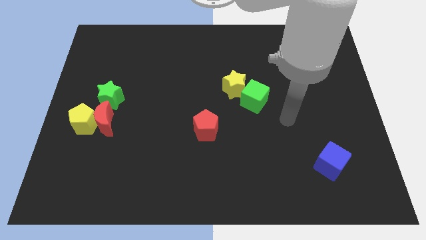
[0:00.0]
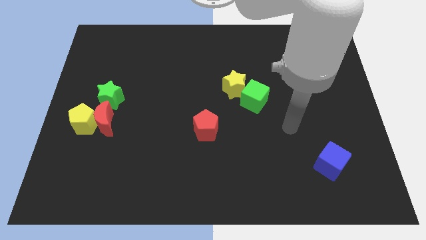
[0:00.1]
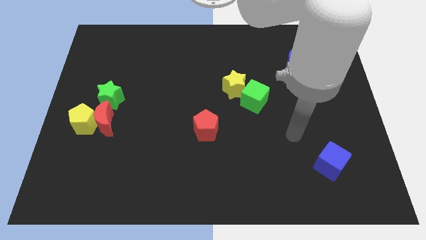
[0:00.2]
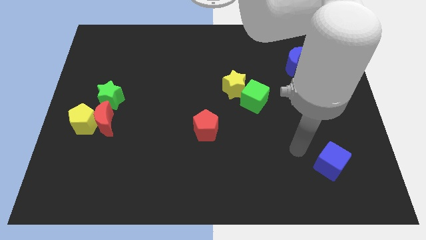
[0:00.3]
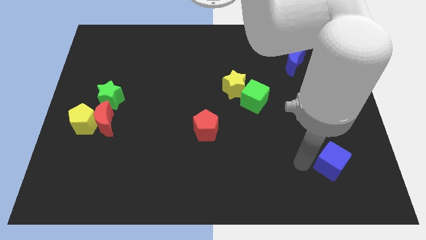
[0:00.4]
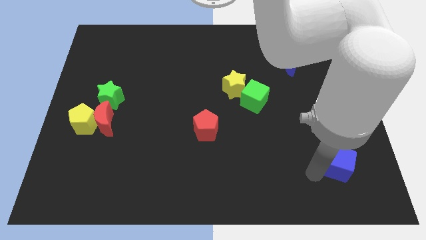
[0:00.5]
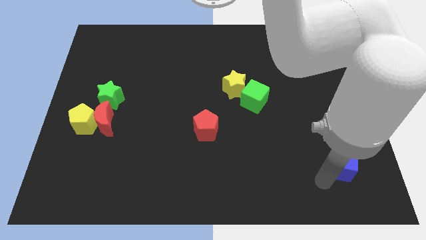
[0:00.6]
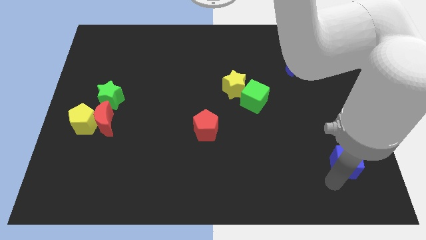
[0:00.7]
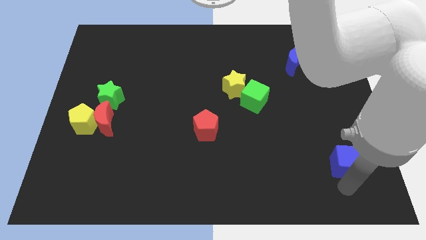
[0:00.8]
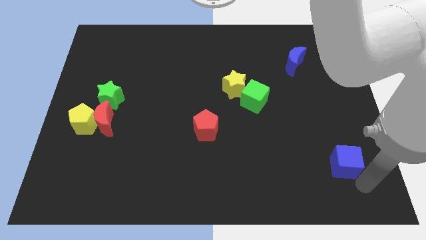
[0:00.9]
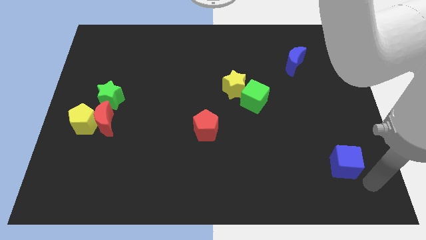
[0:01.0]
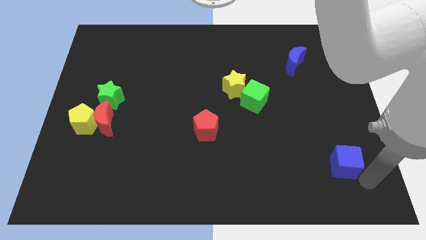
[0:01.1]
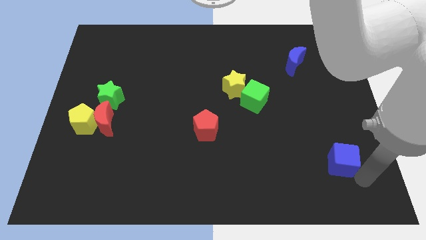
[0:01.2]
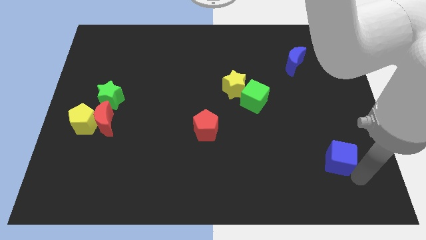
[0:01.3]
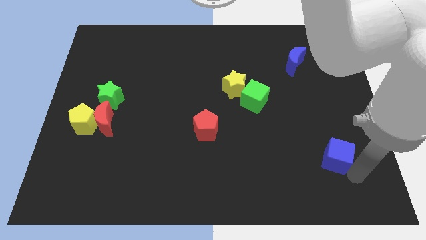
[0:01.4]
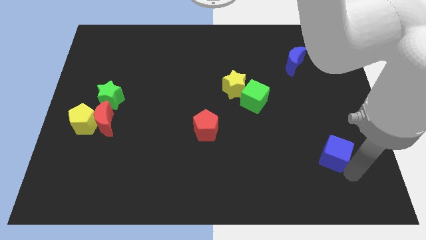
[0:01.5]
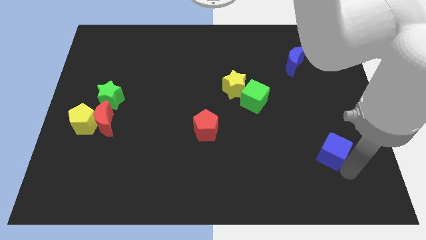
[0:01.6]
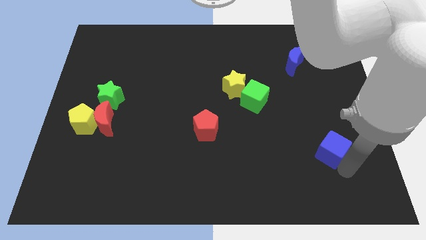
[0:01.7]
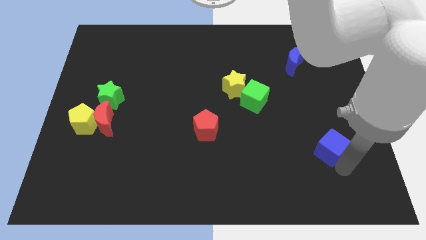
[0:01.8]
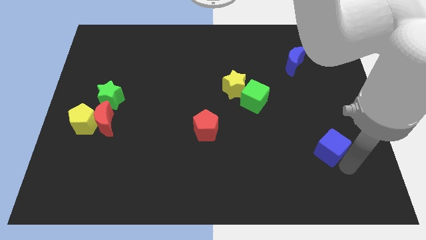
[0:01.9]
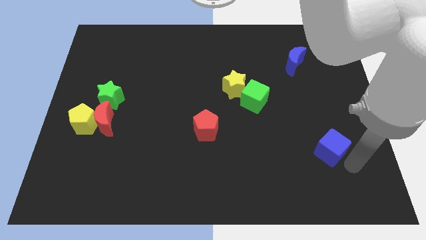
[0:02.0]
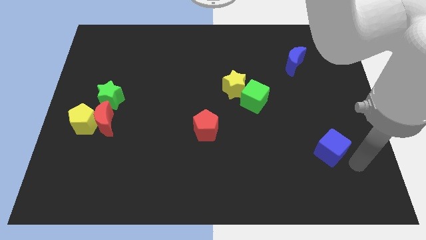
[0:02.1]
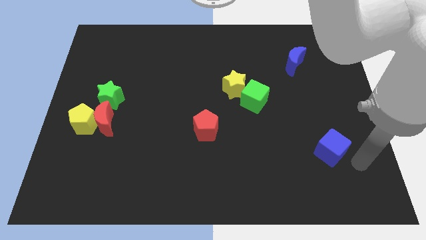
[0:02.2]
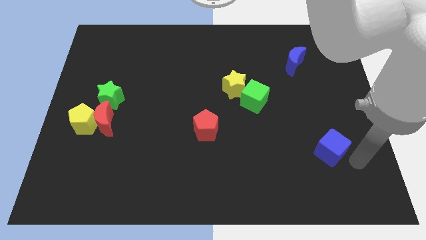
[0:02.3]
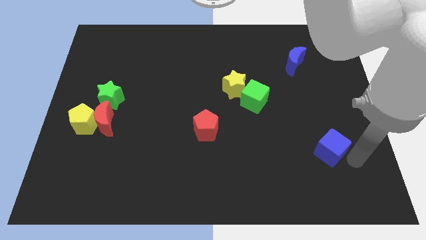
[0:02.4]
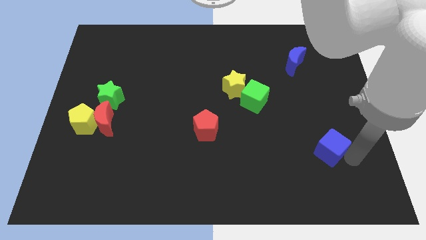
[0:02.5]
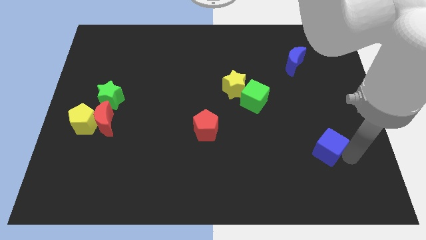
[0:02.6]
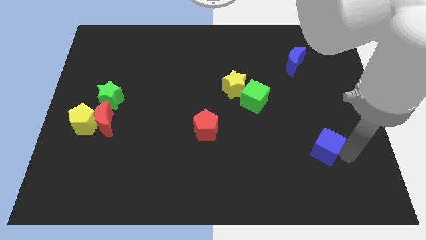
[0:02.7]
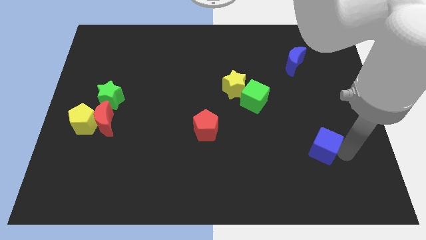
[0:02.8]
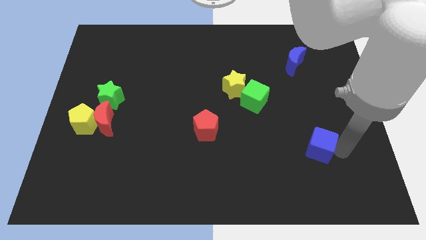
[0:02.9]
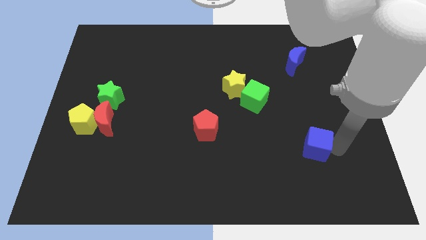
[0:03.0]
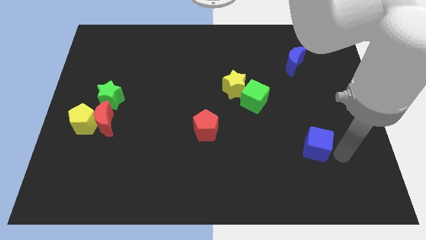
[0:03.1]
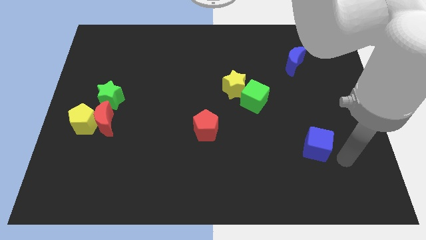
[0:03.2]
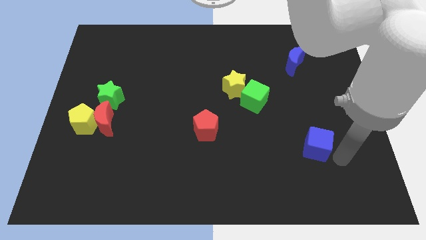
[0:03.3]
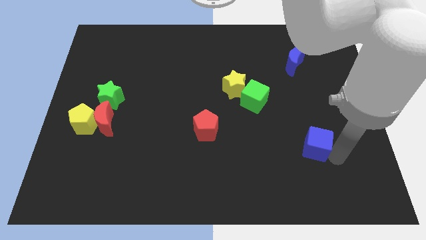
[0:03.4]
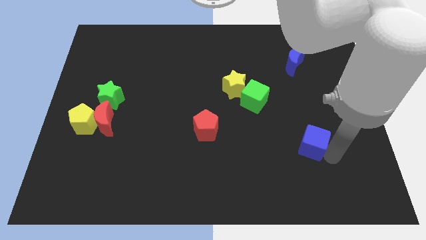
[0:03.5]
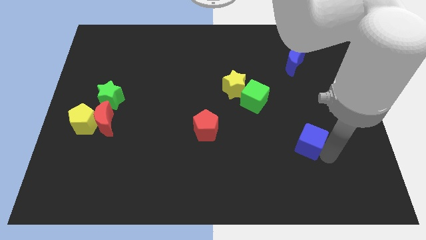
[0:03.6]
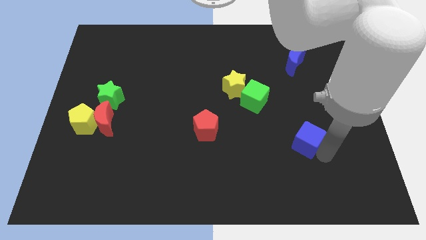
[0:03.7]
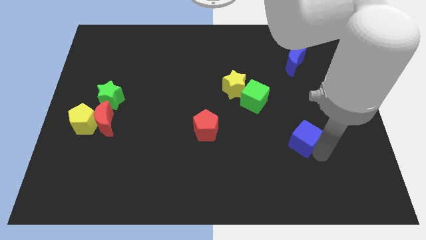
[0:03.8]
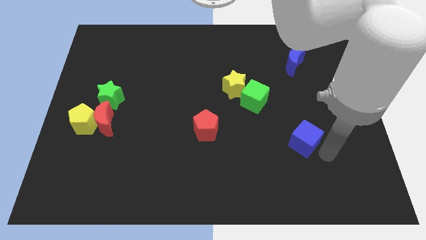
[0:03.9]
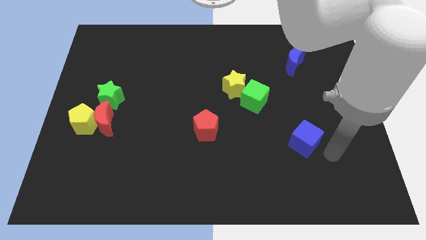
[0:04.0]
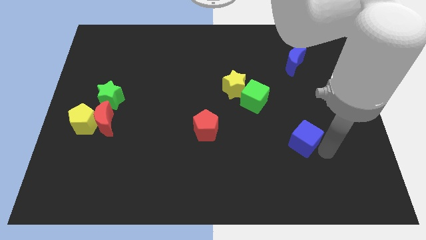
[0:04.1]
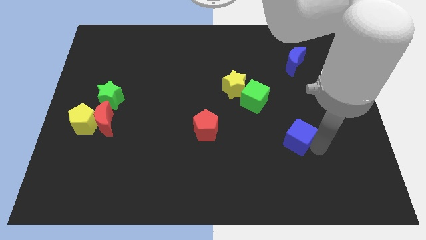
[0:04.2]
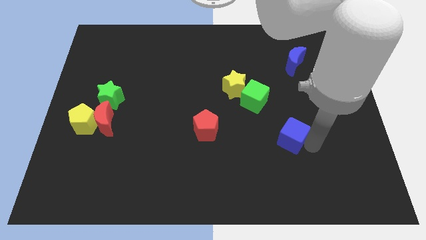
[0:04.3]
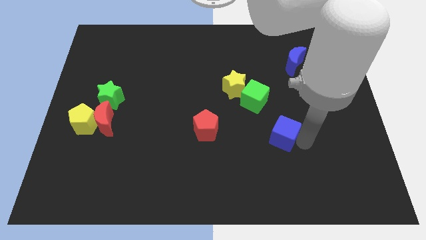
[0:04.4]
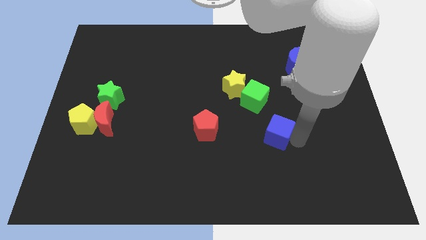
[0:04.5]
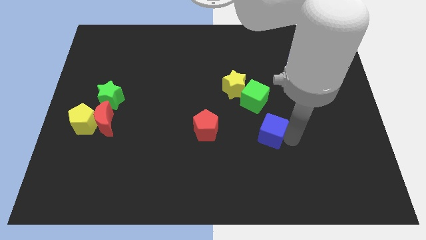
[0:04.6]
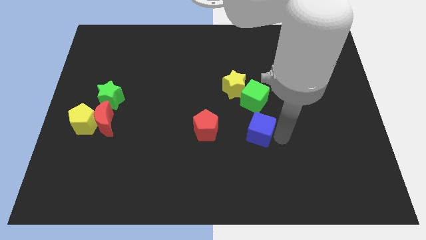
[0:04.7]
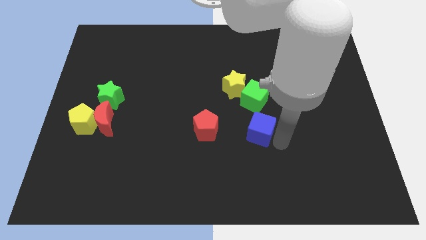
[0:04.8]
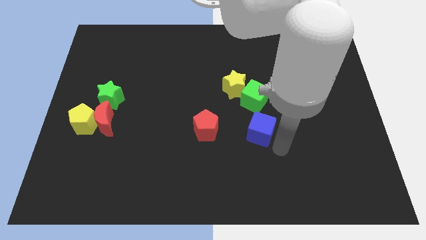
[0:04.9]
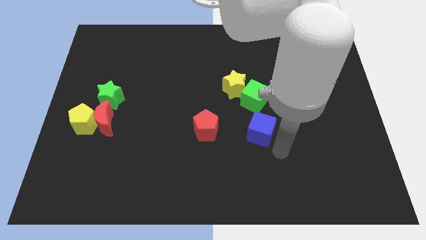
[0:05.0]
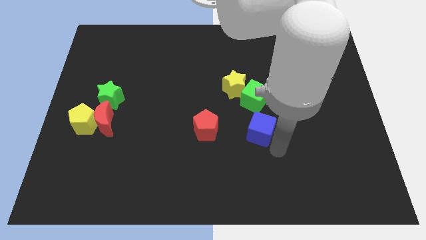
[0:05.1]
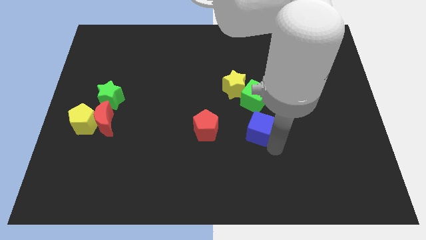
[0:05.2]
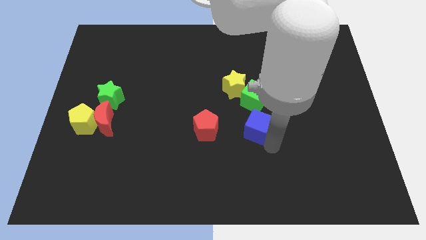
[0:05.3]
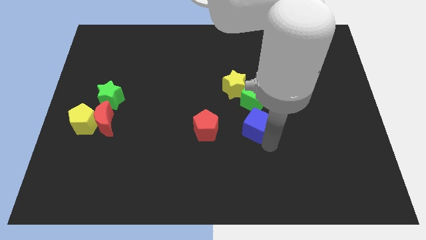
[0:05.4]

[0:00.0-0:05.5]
put the blue cube to the middle of the board

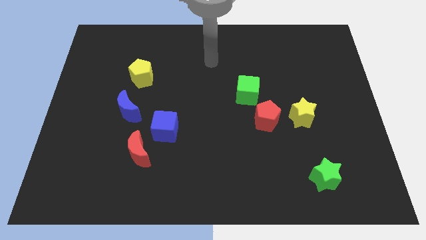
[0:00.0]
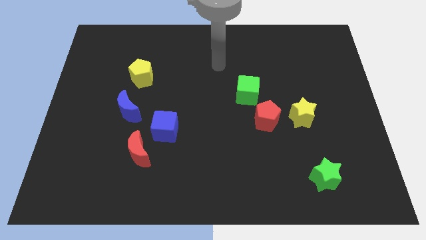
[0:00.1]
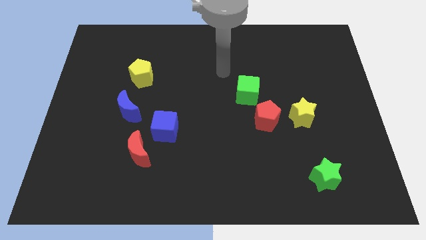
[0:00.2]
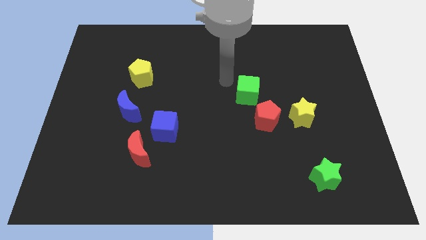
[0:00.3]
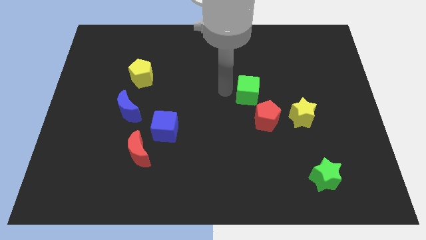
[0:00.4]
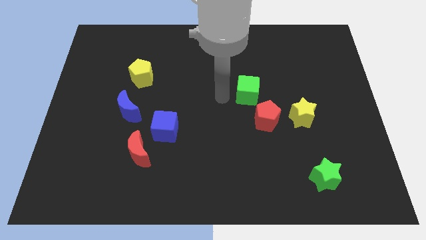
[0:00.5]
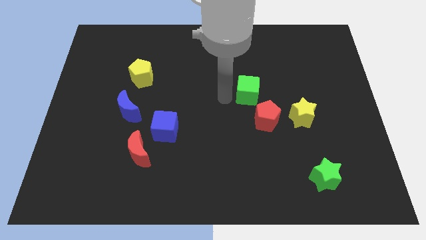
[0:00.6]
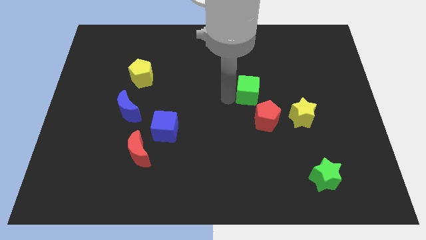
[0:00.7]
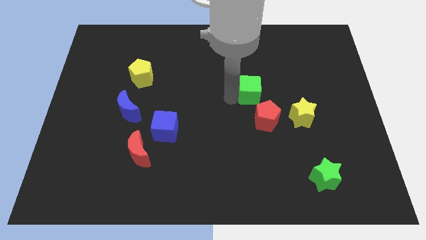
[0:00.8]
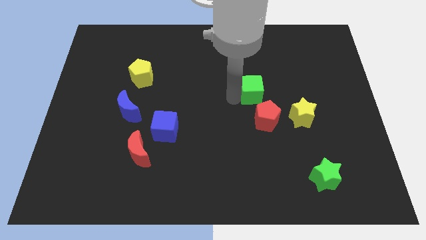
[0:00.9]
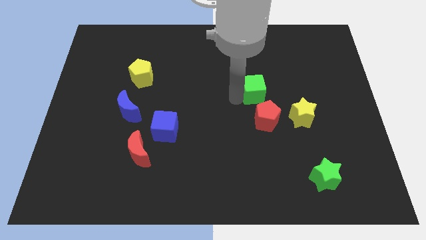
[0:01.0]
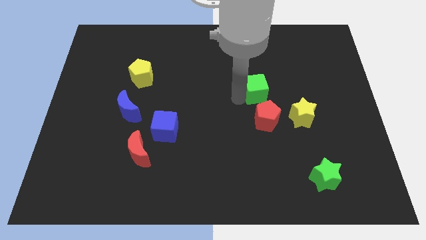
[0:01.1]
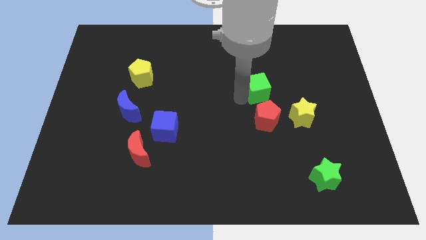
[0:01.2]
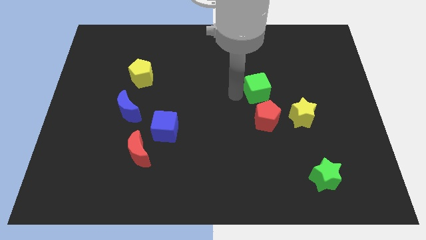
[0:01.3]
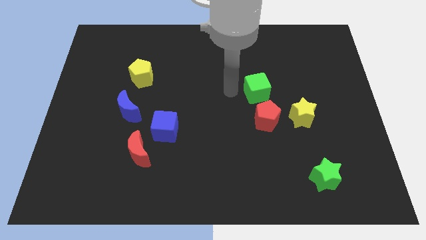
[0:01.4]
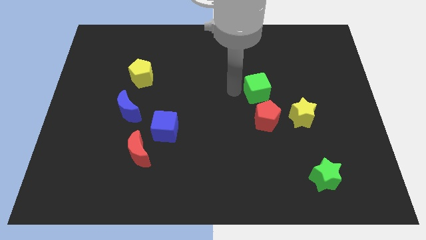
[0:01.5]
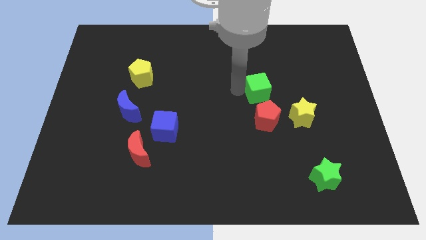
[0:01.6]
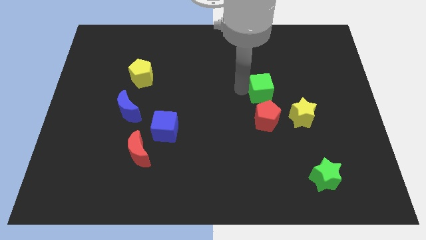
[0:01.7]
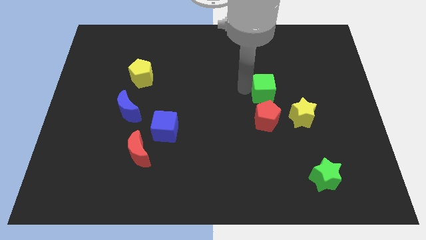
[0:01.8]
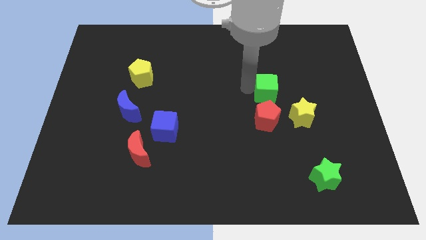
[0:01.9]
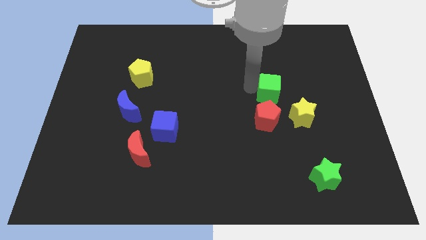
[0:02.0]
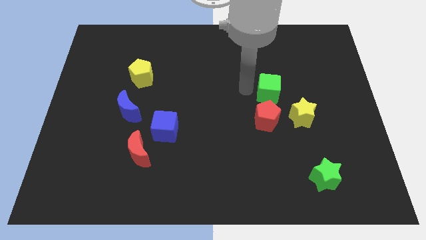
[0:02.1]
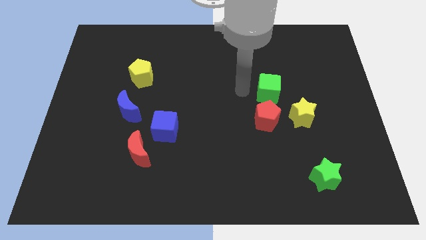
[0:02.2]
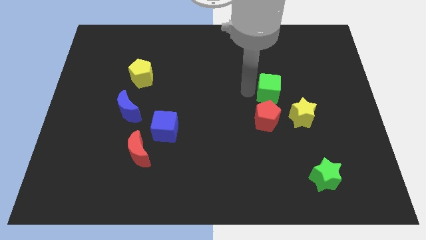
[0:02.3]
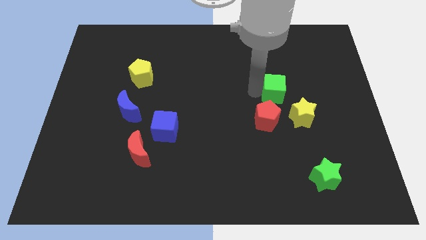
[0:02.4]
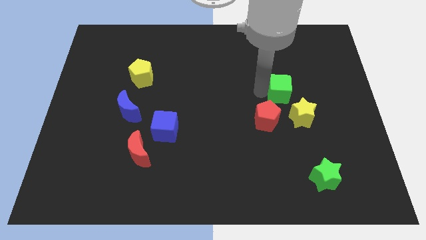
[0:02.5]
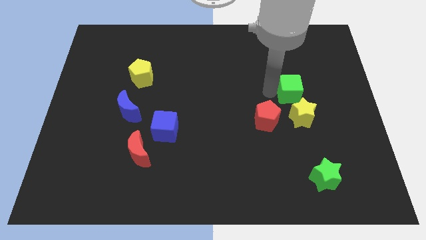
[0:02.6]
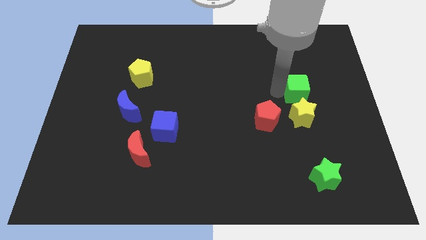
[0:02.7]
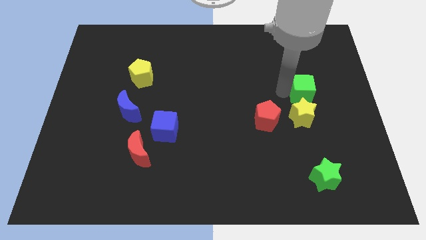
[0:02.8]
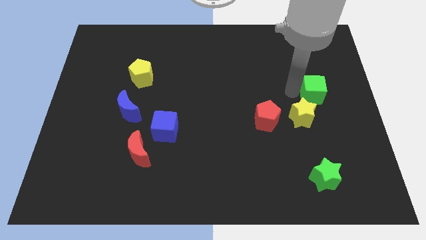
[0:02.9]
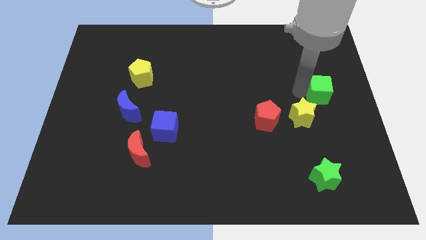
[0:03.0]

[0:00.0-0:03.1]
move the green cube to the right side of the board
